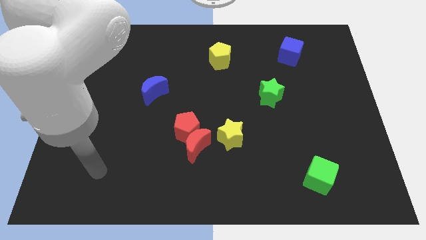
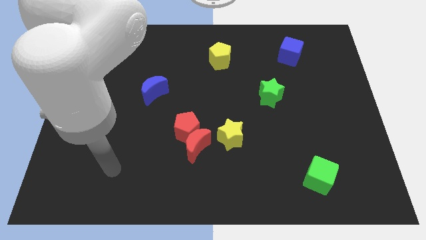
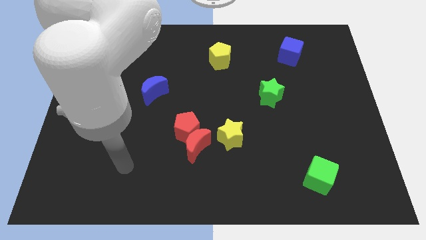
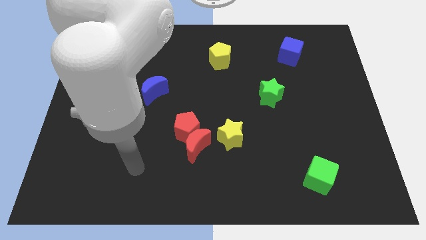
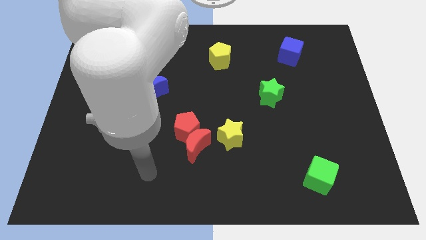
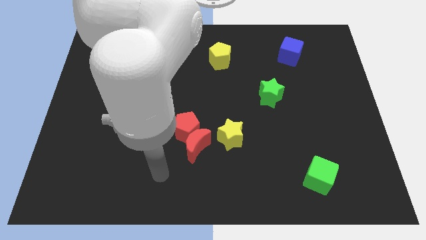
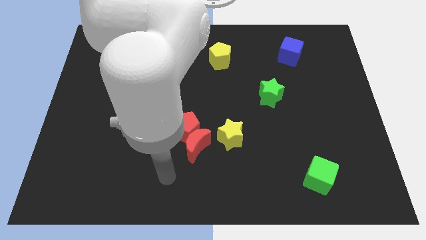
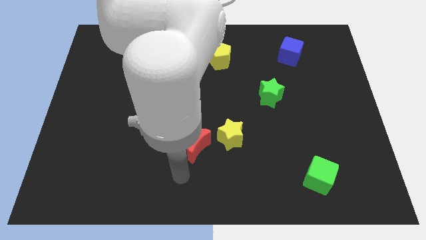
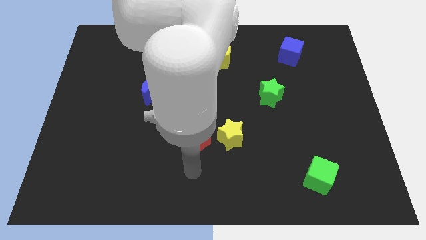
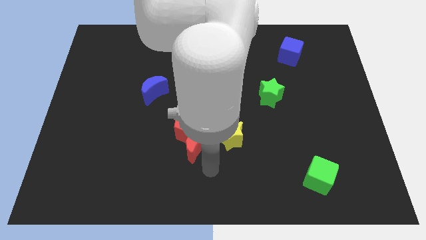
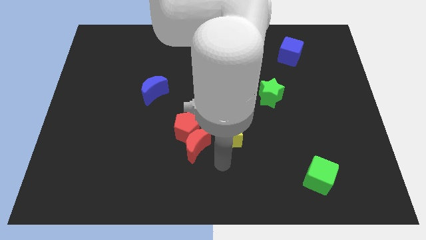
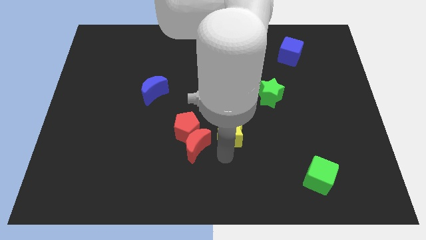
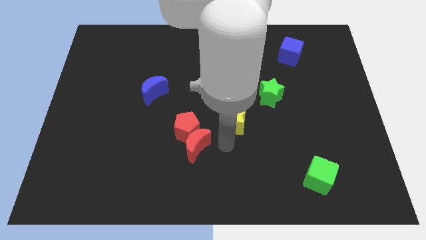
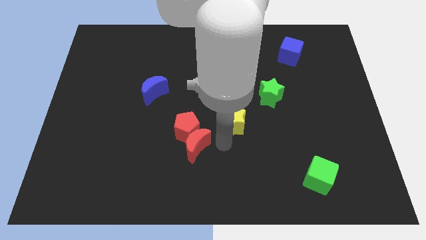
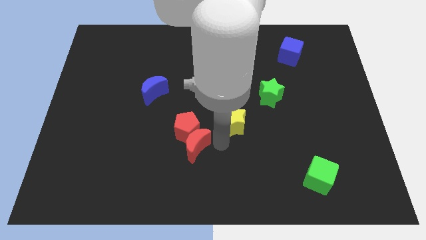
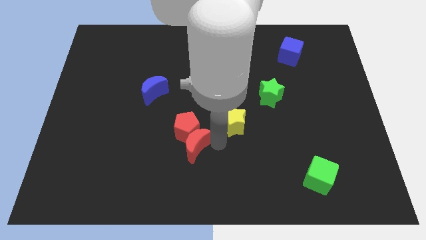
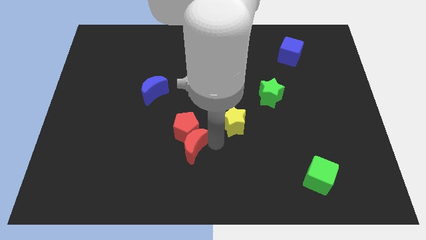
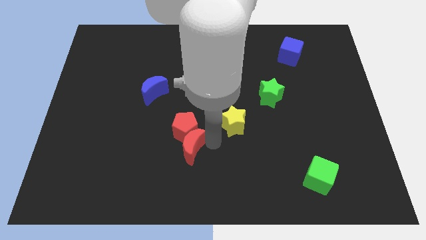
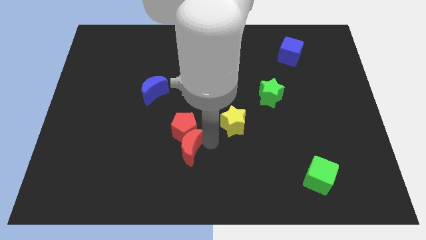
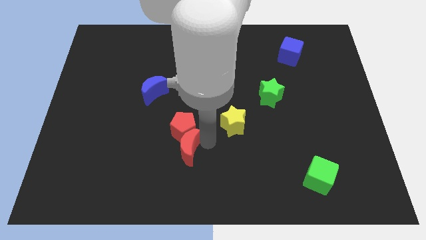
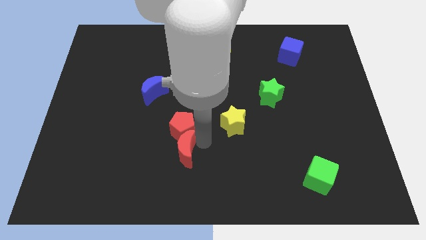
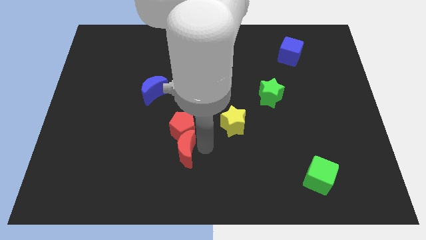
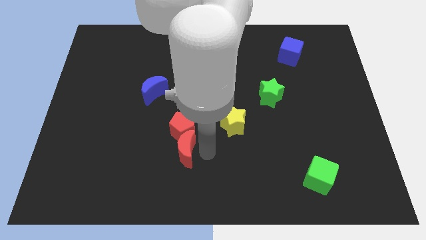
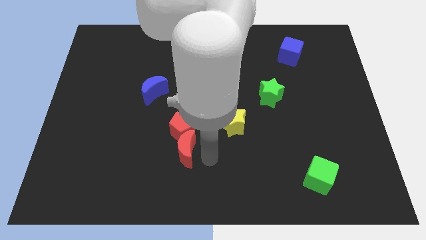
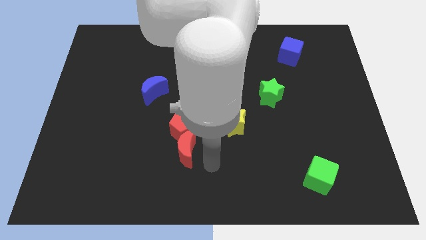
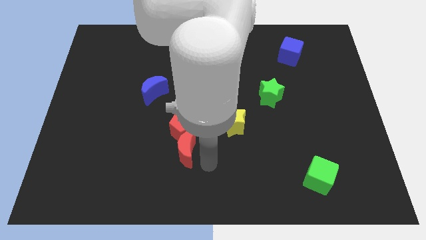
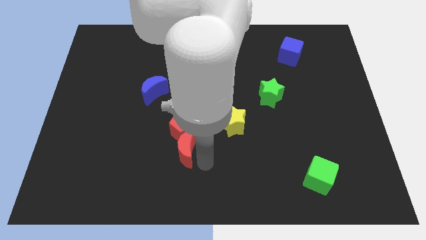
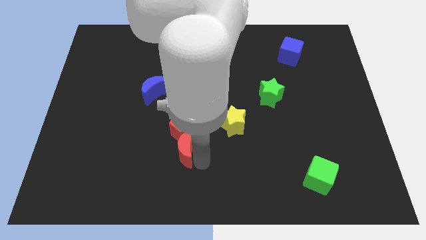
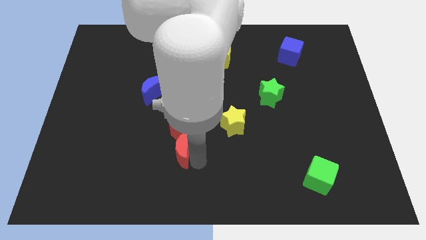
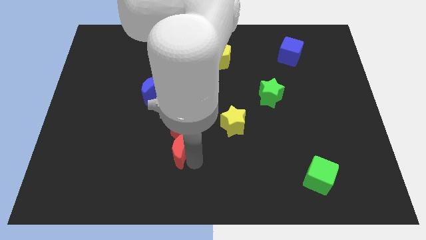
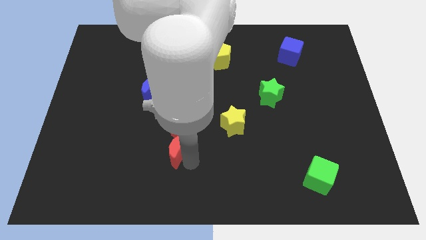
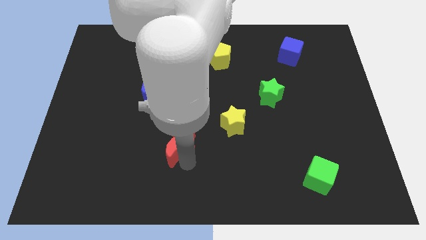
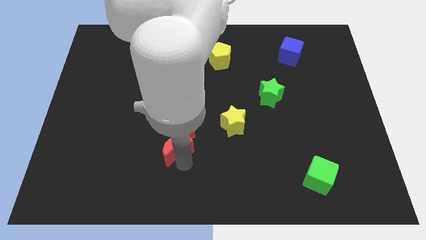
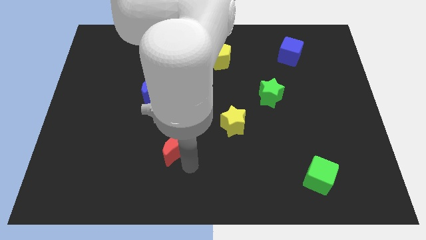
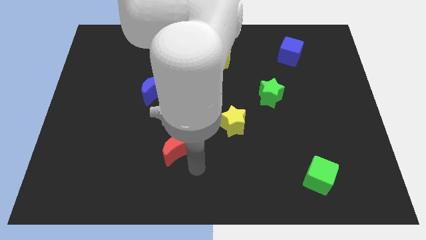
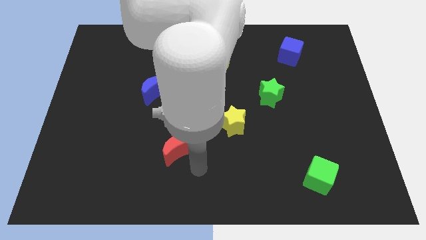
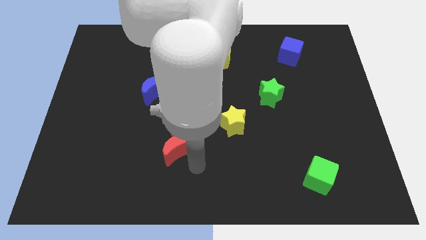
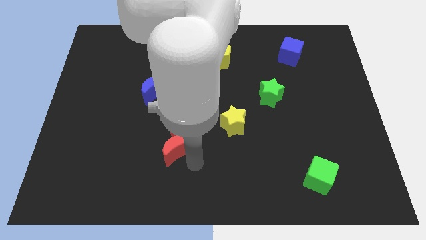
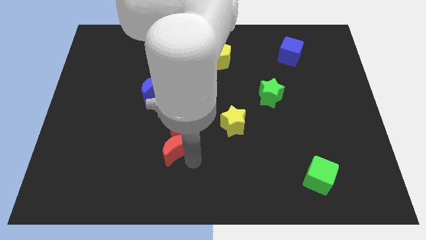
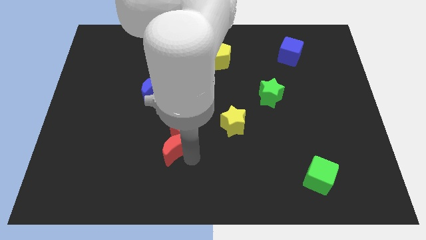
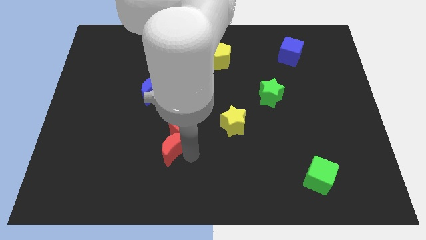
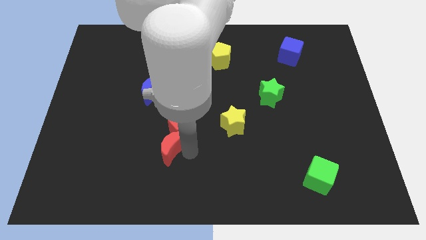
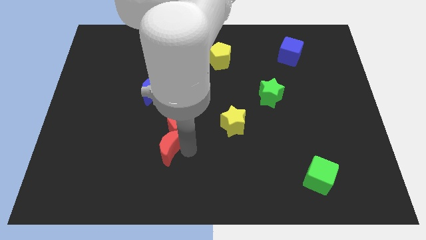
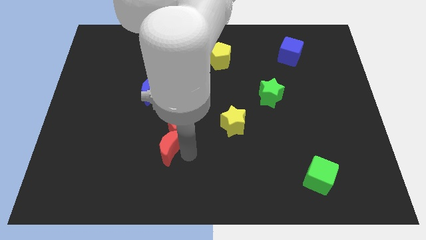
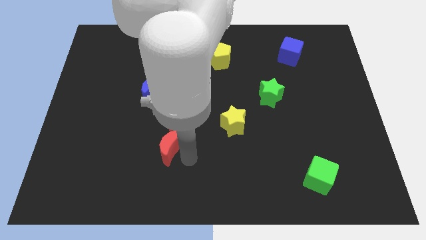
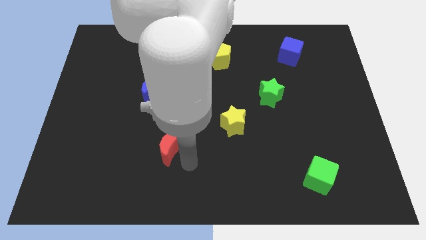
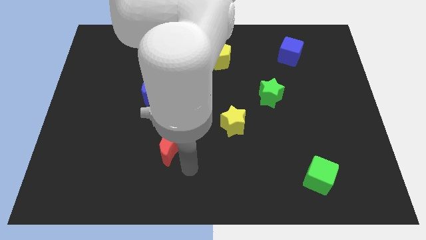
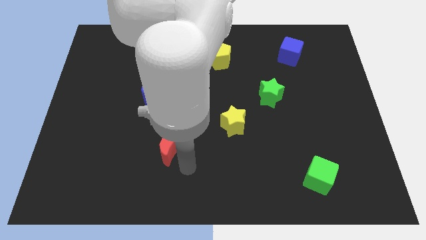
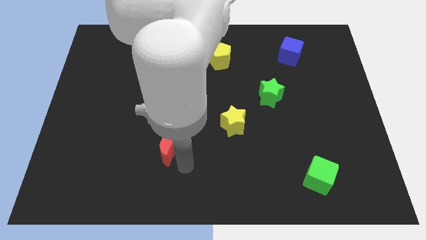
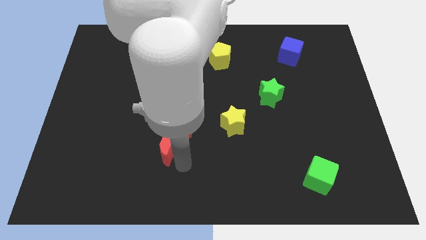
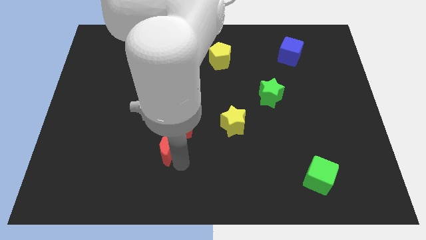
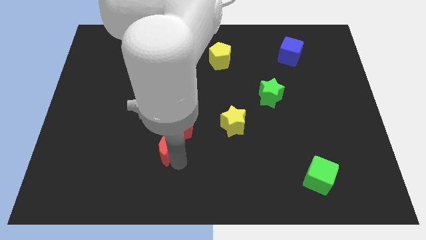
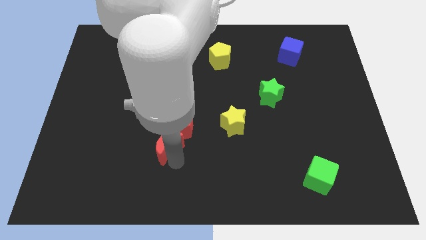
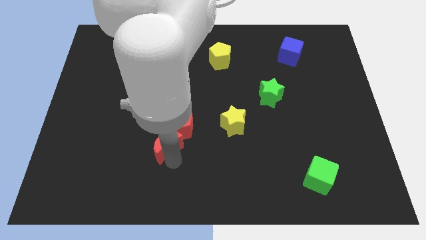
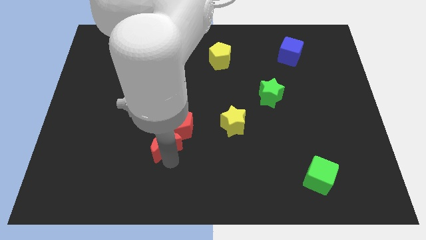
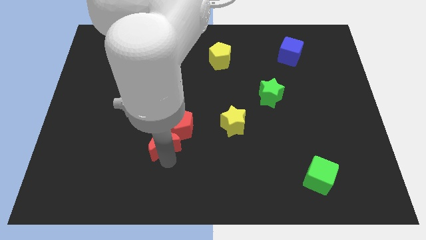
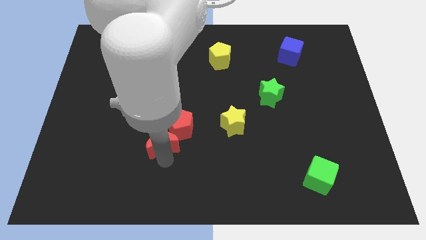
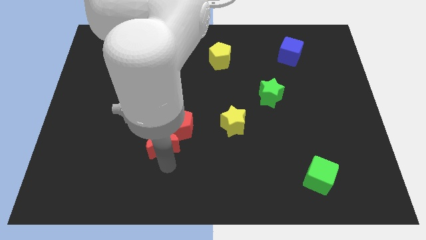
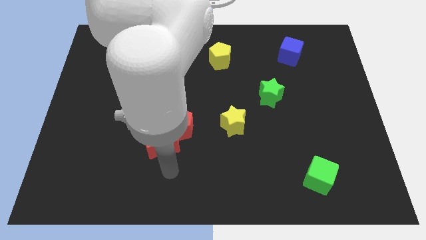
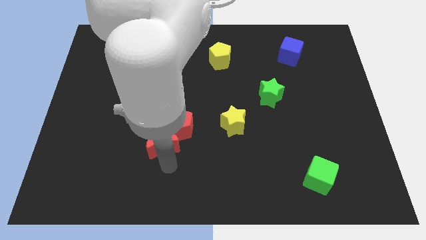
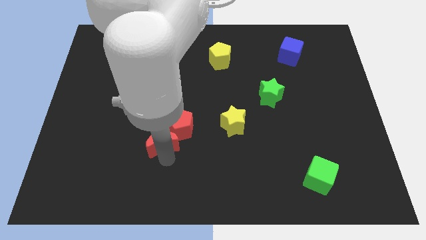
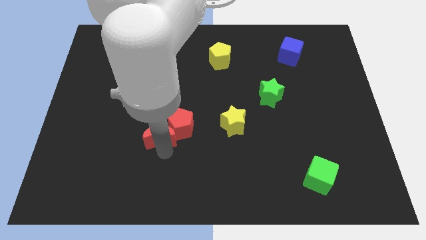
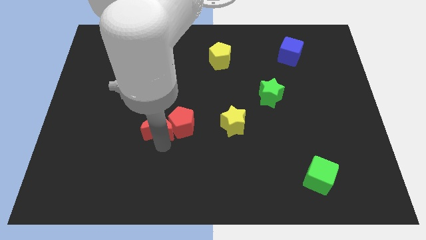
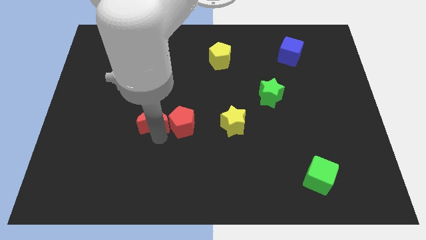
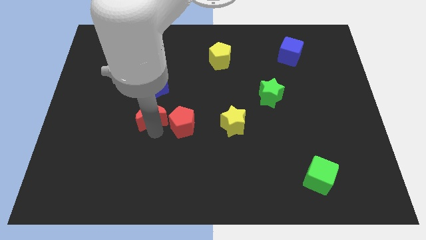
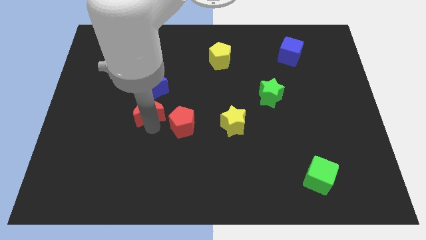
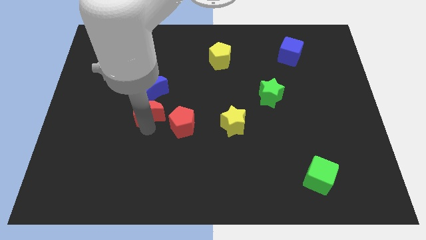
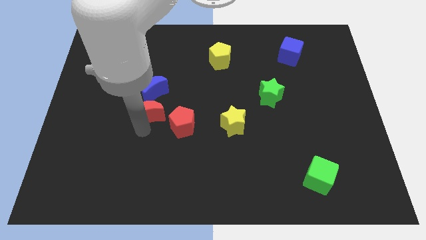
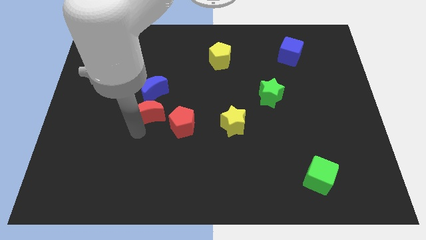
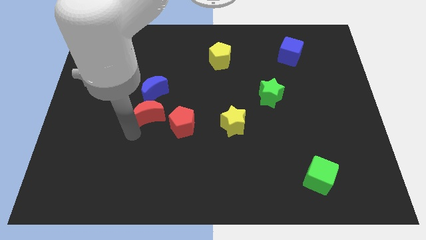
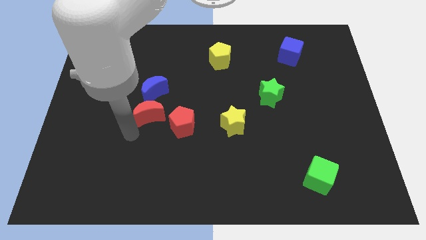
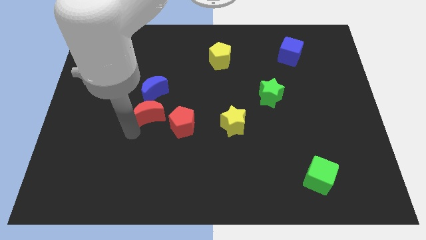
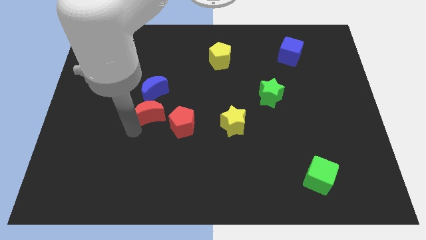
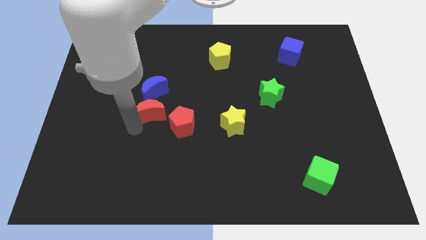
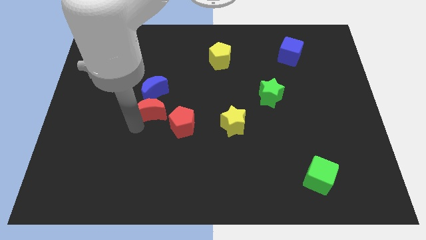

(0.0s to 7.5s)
slide the red moon towards the blue moon

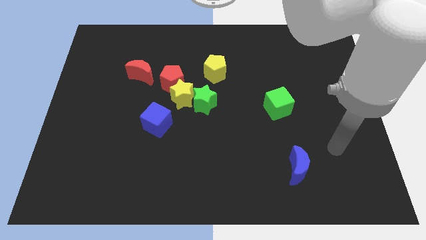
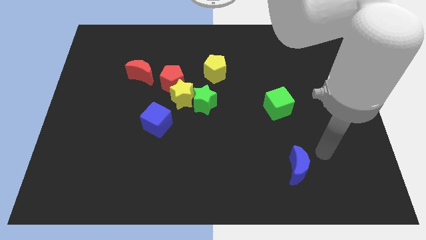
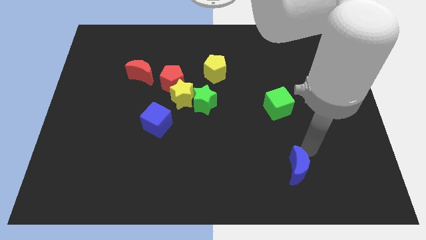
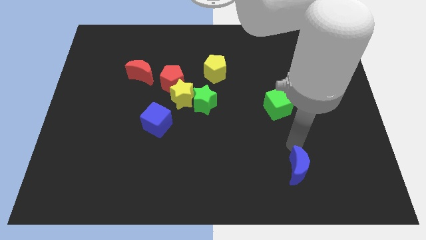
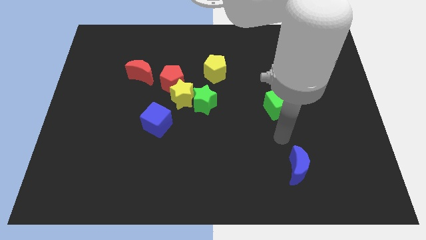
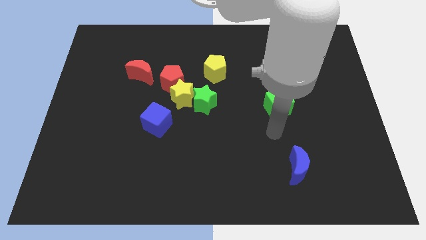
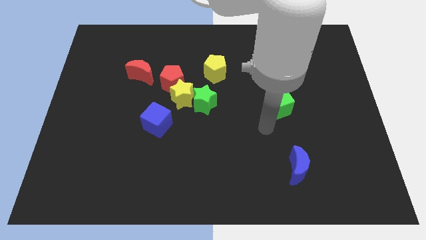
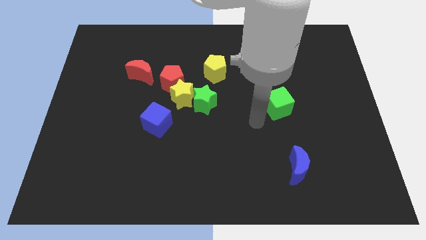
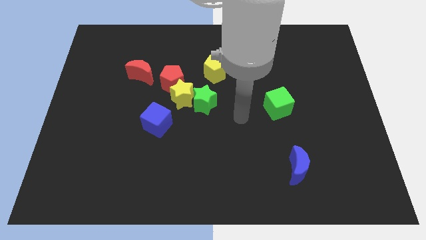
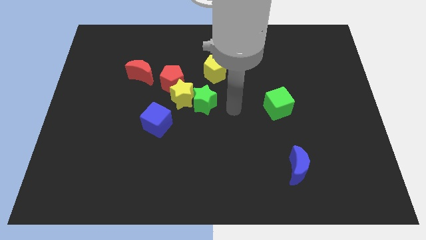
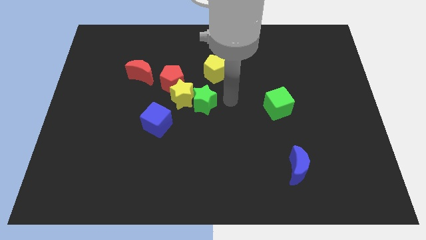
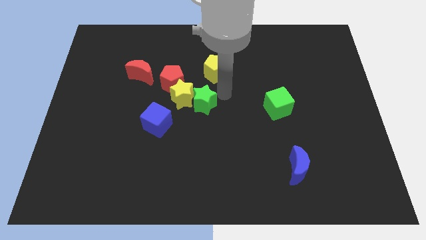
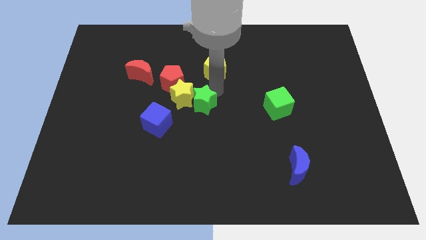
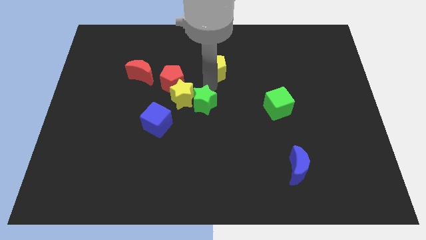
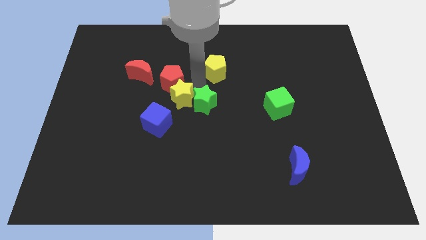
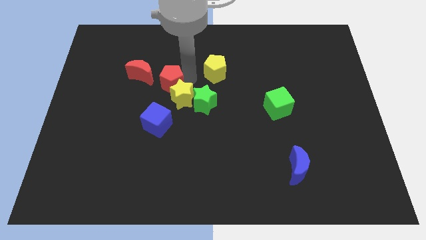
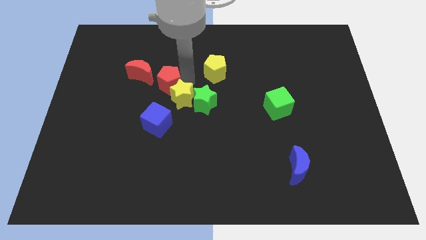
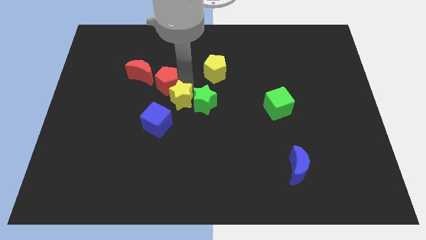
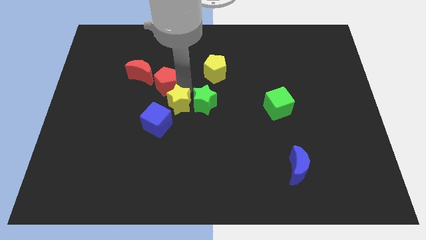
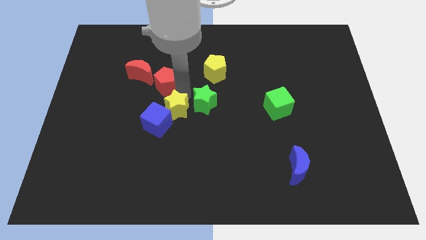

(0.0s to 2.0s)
move the yellow star towards the blue cube
